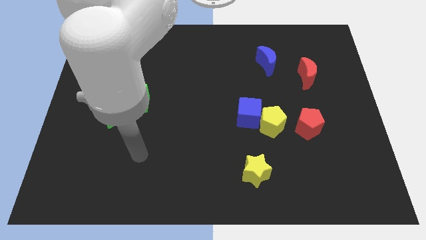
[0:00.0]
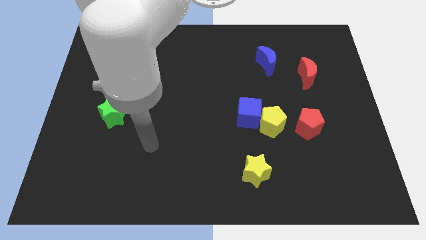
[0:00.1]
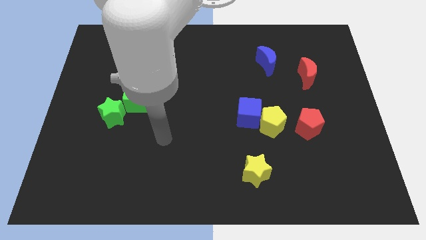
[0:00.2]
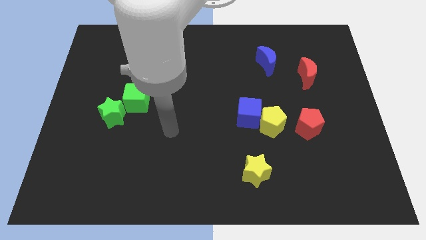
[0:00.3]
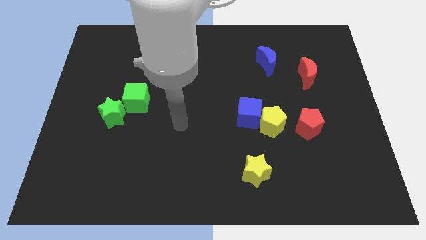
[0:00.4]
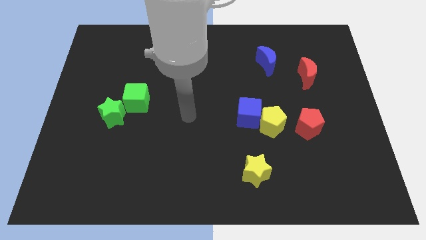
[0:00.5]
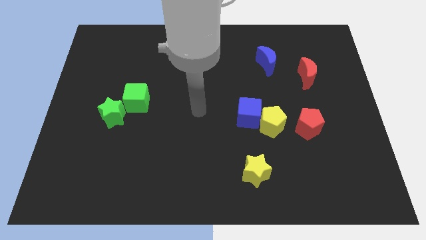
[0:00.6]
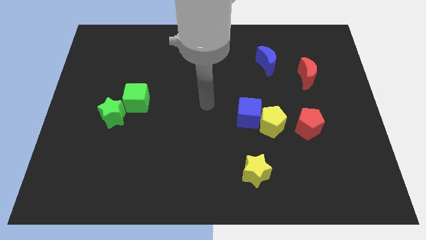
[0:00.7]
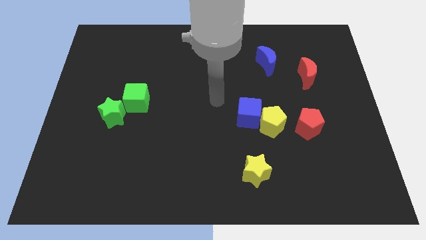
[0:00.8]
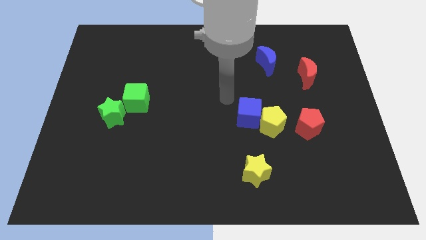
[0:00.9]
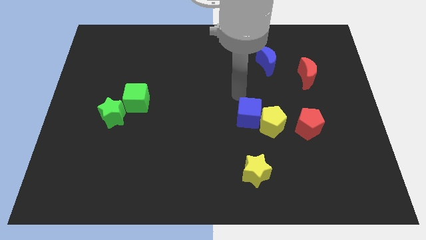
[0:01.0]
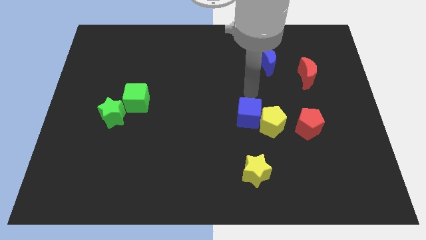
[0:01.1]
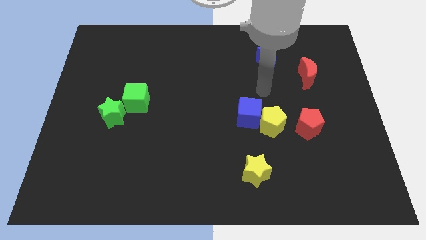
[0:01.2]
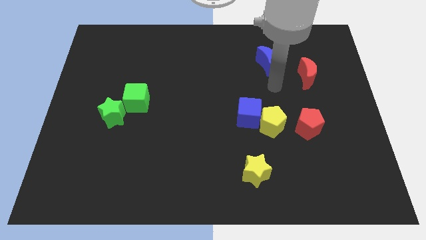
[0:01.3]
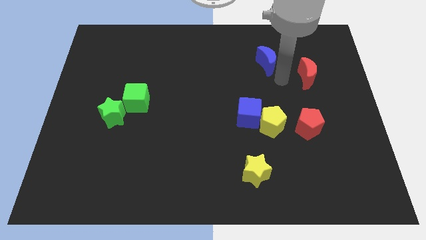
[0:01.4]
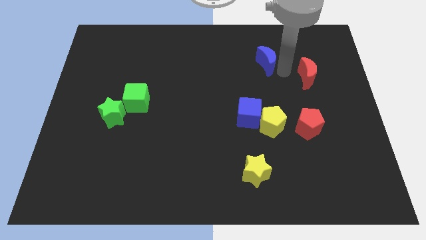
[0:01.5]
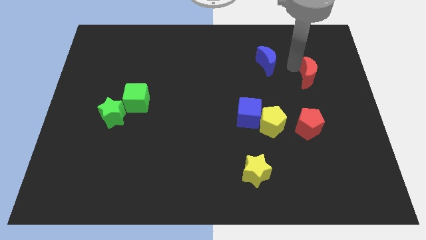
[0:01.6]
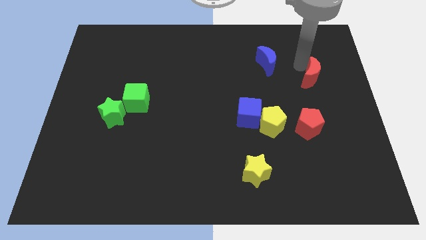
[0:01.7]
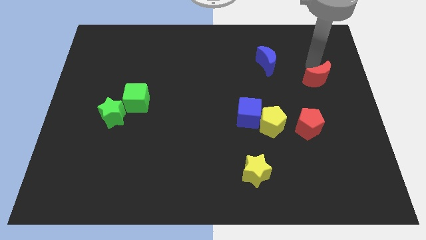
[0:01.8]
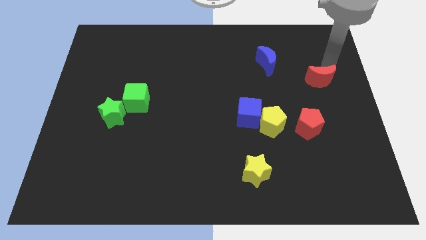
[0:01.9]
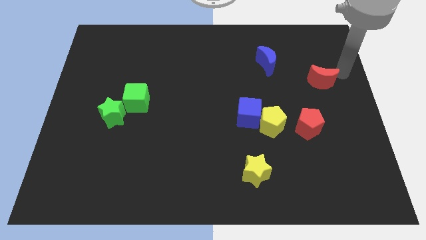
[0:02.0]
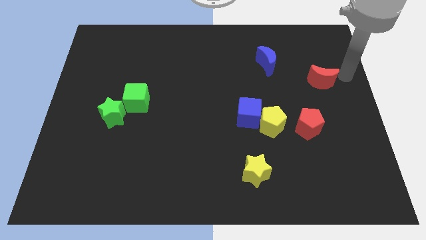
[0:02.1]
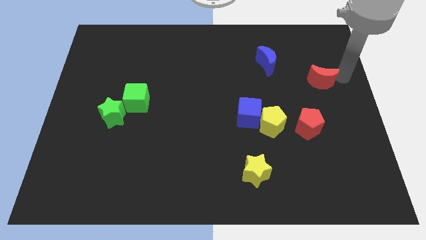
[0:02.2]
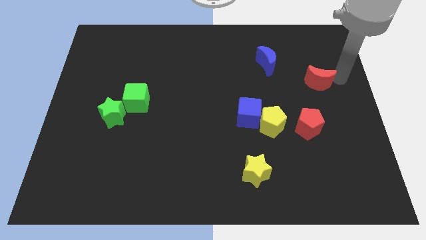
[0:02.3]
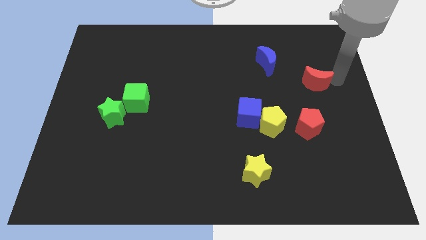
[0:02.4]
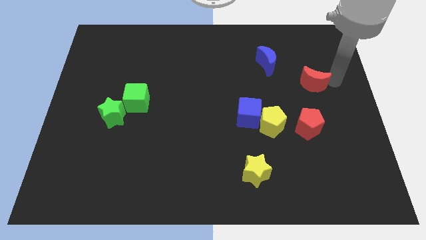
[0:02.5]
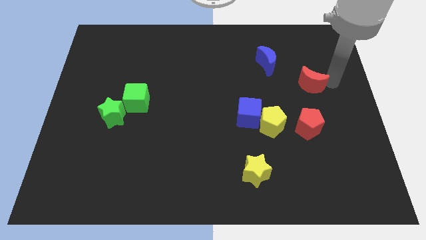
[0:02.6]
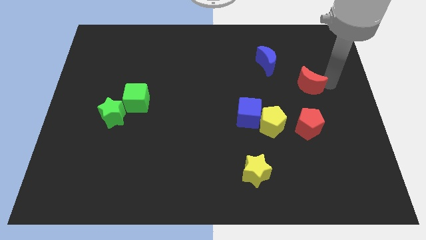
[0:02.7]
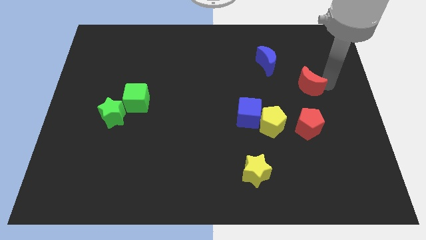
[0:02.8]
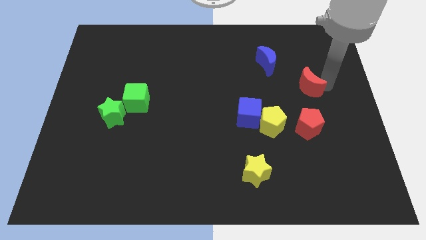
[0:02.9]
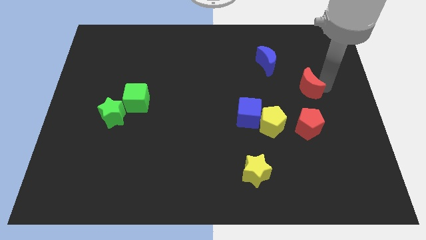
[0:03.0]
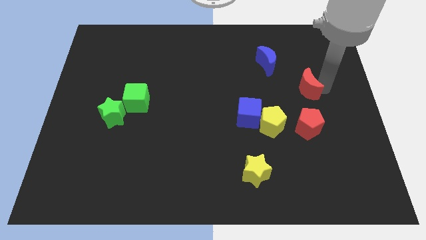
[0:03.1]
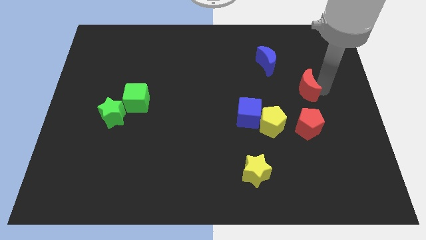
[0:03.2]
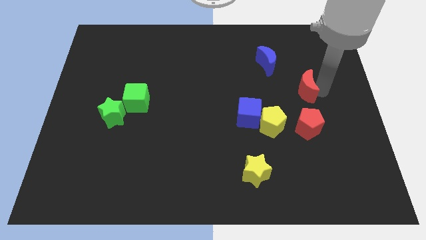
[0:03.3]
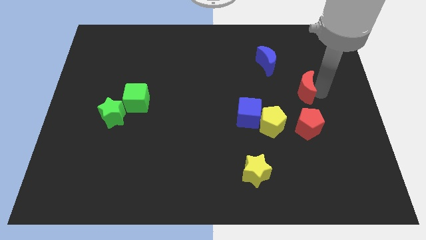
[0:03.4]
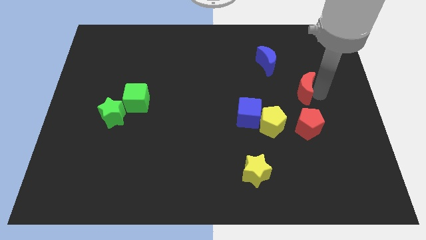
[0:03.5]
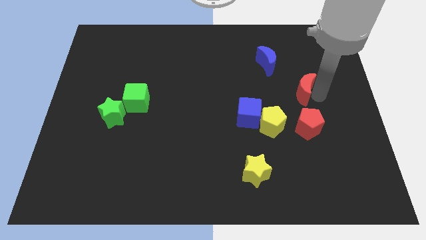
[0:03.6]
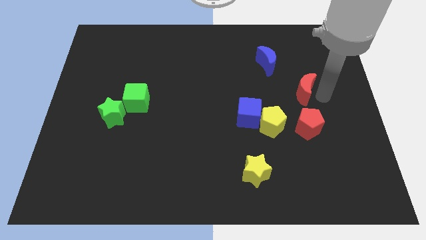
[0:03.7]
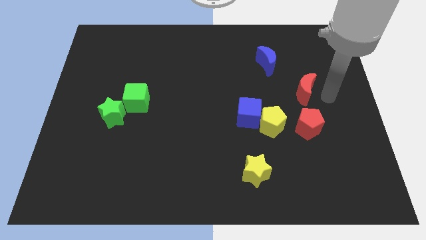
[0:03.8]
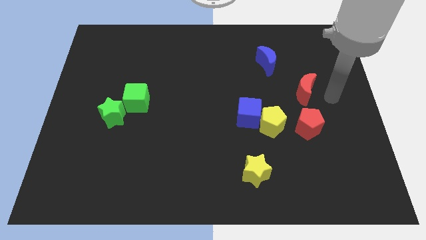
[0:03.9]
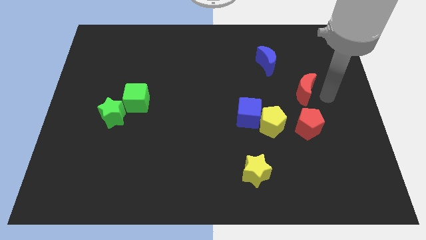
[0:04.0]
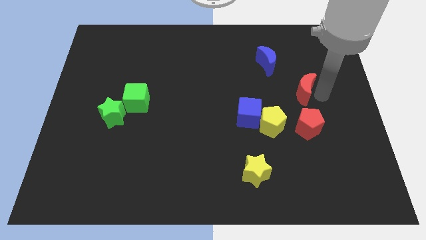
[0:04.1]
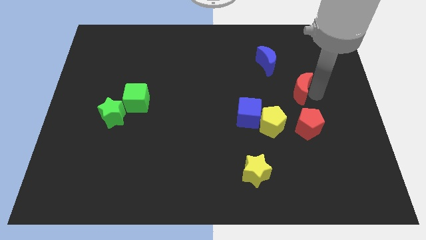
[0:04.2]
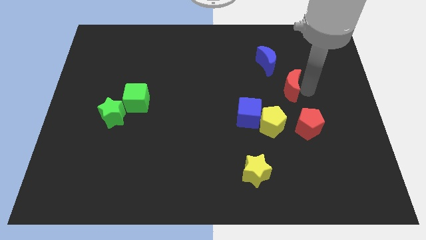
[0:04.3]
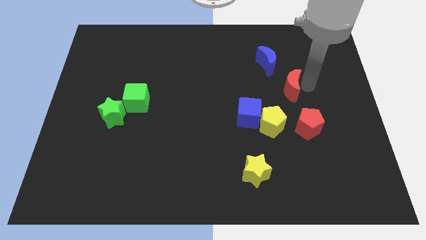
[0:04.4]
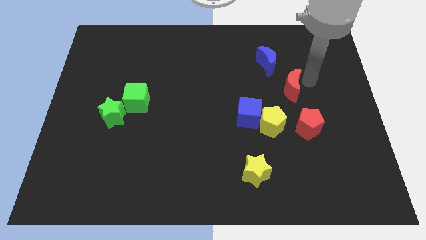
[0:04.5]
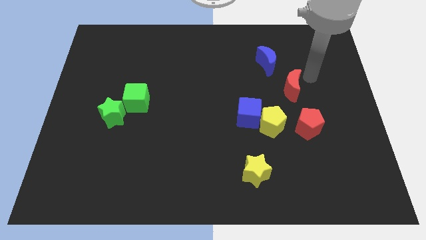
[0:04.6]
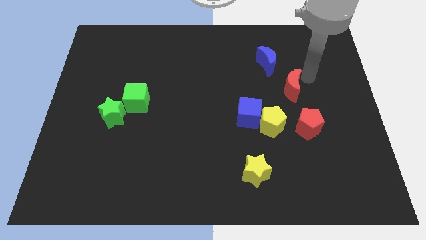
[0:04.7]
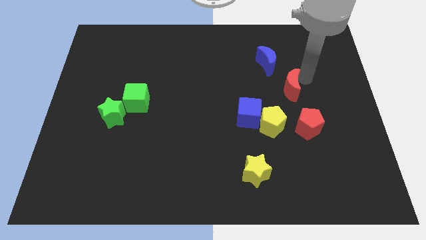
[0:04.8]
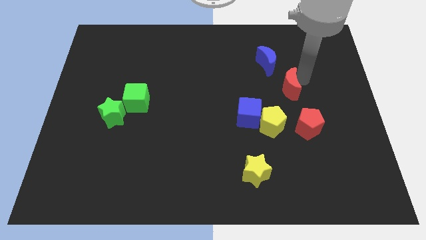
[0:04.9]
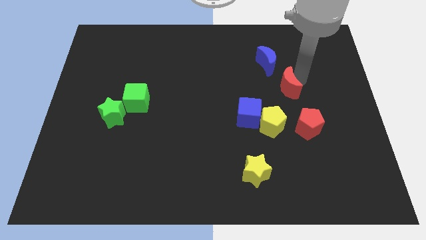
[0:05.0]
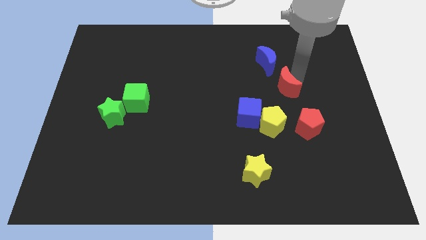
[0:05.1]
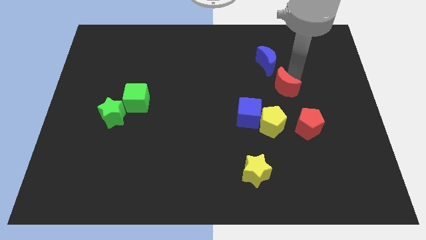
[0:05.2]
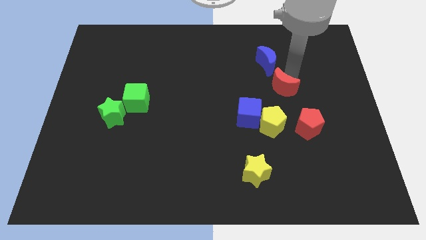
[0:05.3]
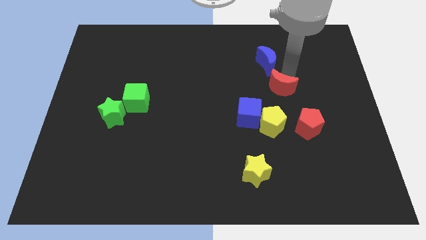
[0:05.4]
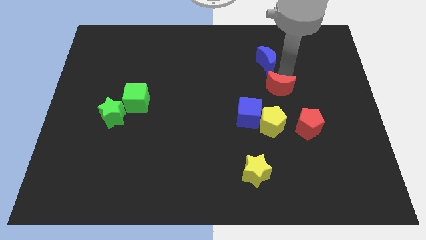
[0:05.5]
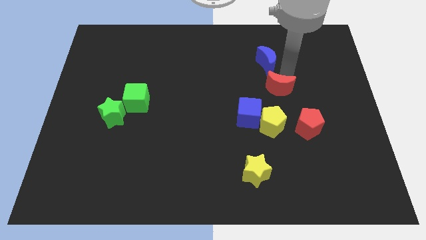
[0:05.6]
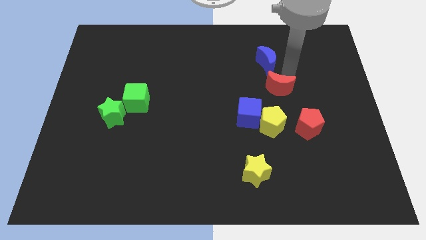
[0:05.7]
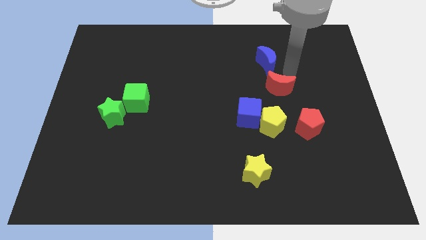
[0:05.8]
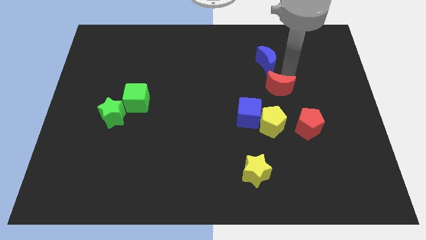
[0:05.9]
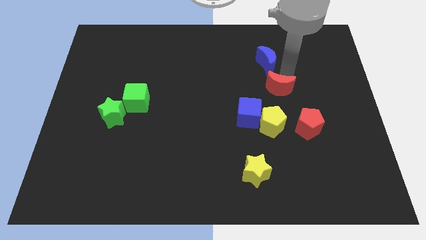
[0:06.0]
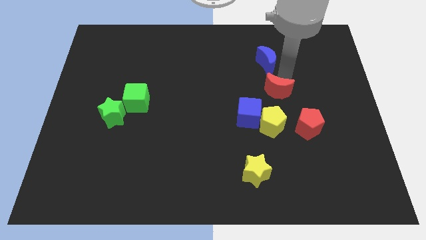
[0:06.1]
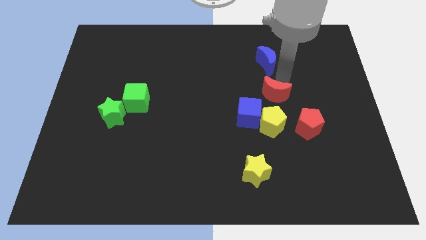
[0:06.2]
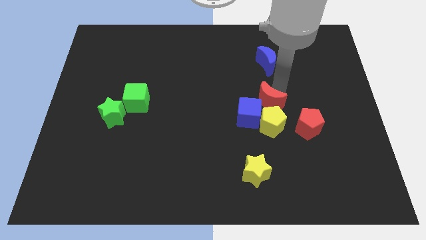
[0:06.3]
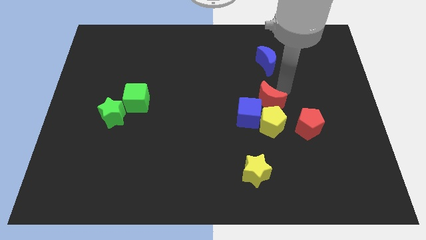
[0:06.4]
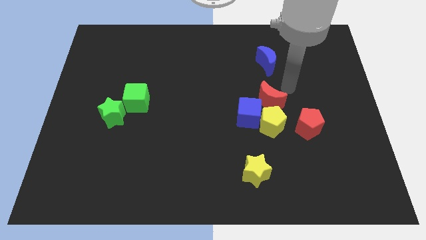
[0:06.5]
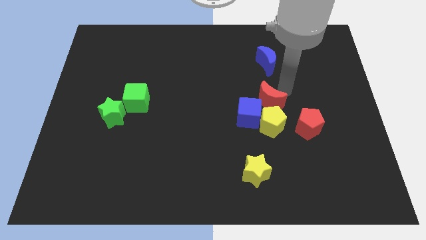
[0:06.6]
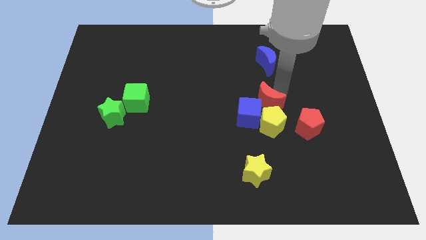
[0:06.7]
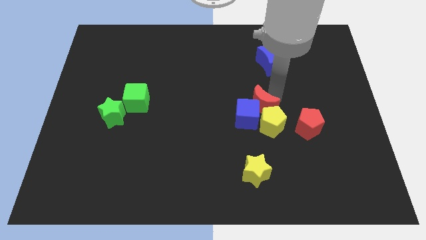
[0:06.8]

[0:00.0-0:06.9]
push the red moon next to the blue cube
